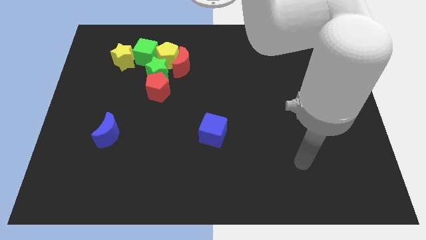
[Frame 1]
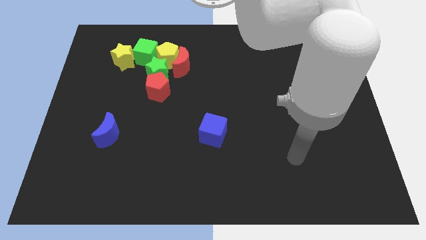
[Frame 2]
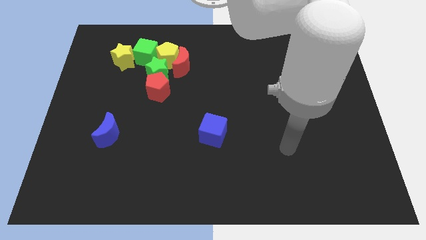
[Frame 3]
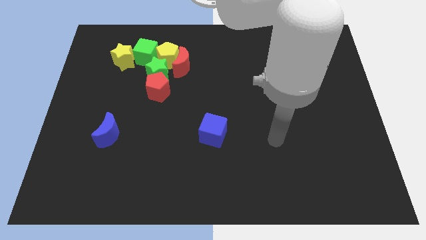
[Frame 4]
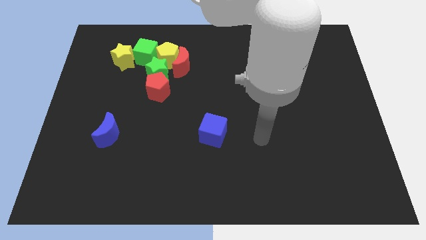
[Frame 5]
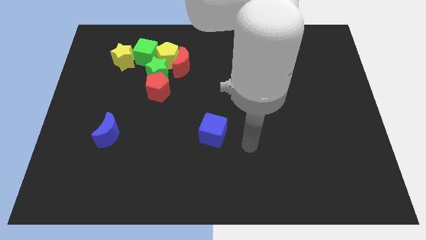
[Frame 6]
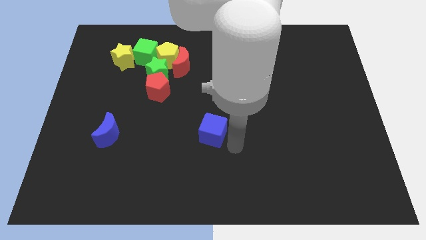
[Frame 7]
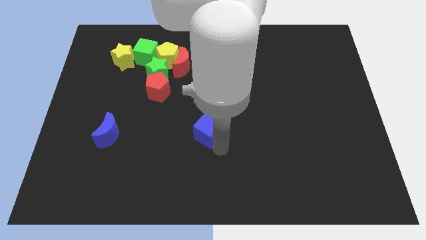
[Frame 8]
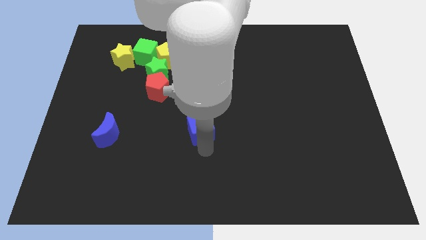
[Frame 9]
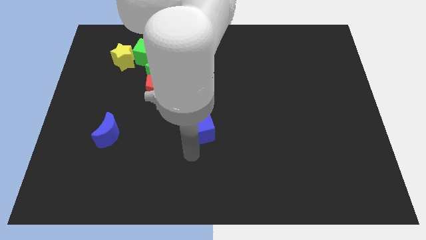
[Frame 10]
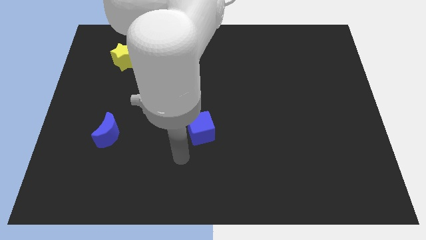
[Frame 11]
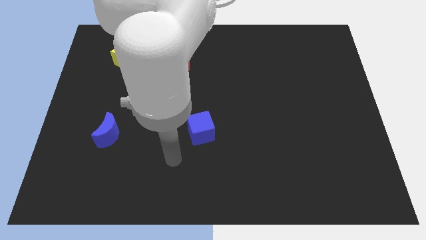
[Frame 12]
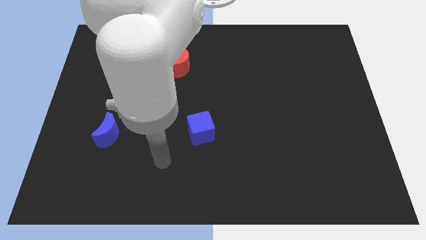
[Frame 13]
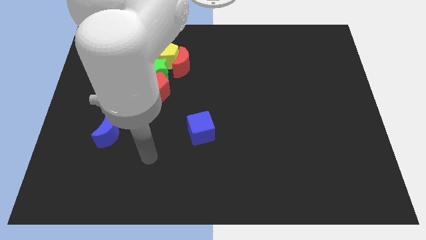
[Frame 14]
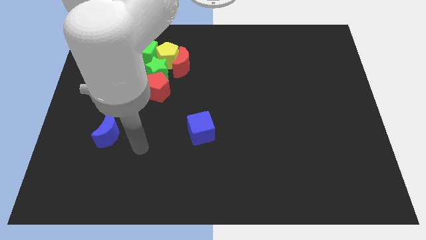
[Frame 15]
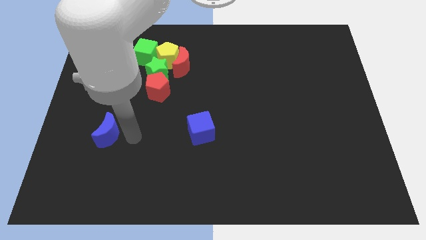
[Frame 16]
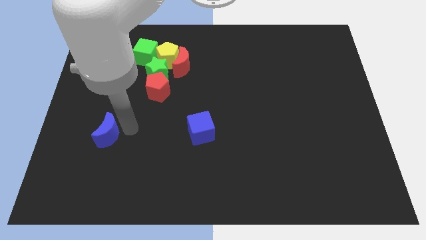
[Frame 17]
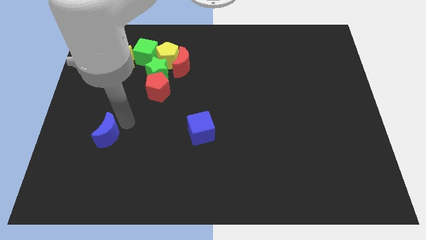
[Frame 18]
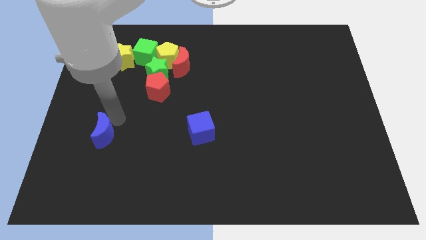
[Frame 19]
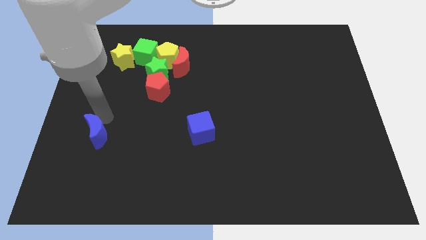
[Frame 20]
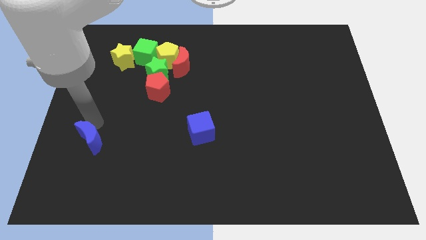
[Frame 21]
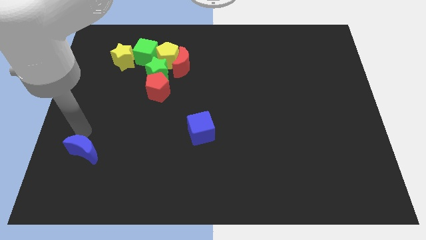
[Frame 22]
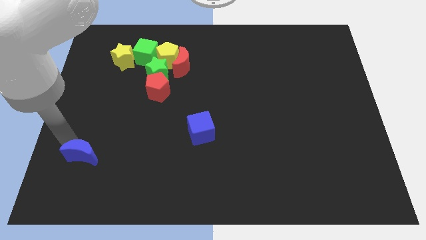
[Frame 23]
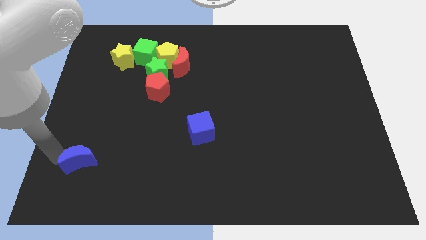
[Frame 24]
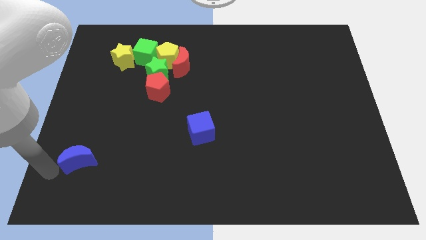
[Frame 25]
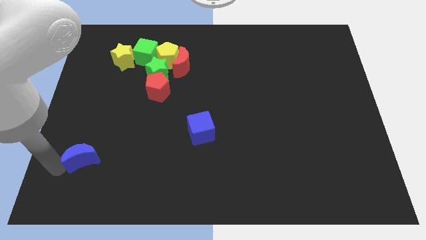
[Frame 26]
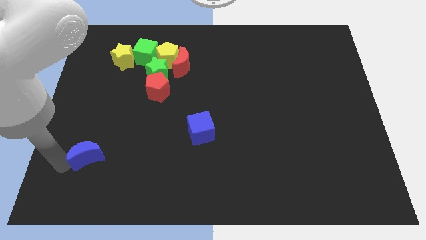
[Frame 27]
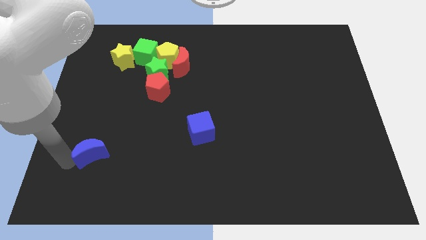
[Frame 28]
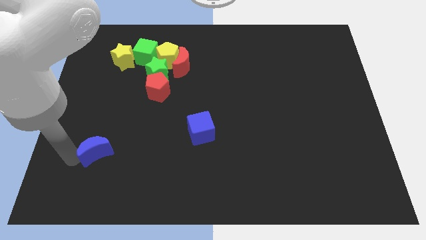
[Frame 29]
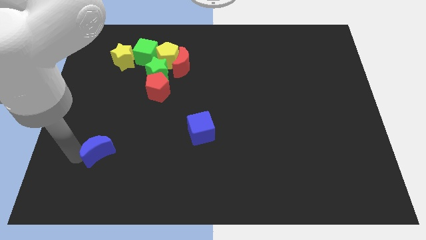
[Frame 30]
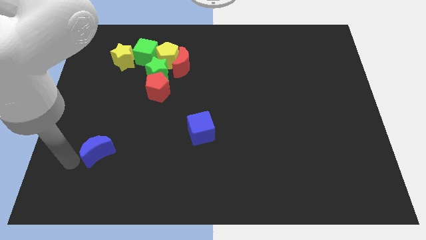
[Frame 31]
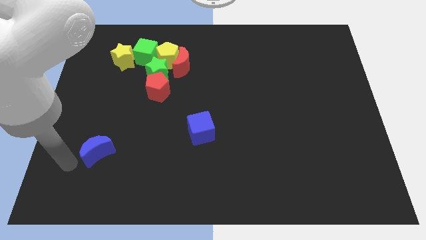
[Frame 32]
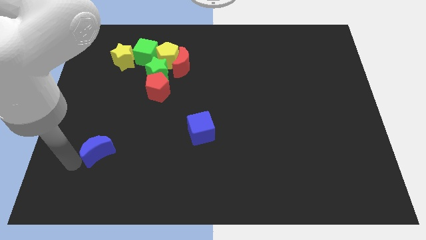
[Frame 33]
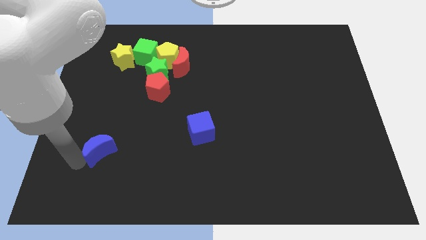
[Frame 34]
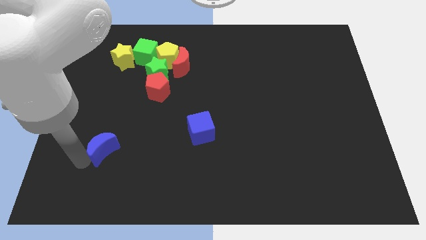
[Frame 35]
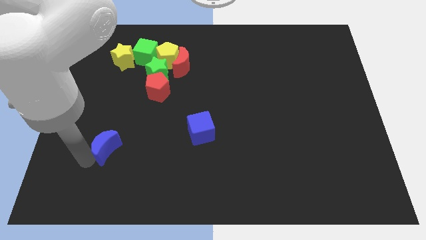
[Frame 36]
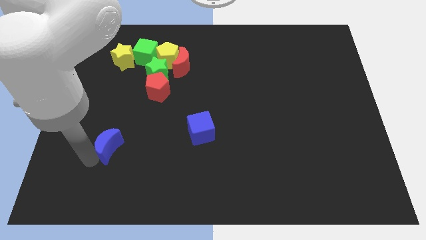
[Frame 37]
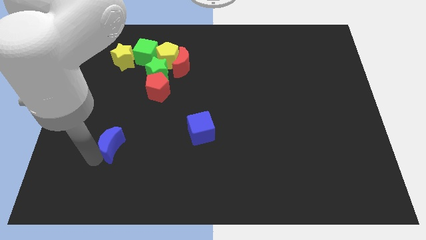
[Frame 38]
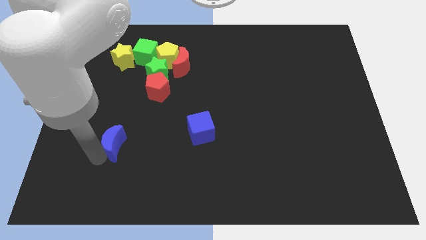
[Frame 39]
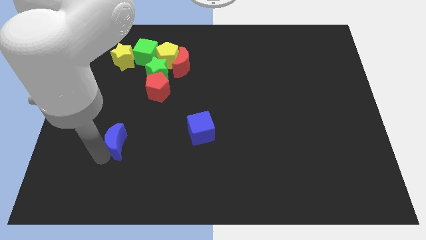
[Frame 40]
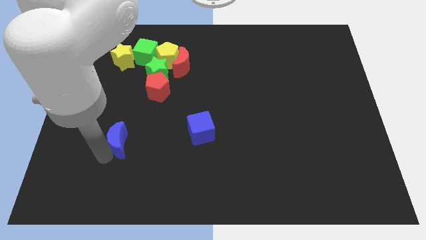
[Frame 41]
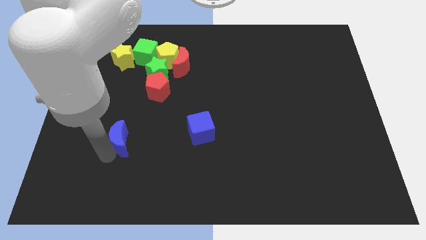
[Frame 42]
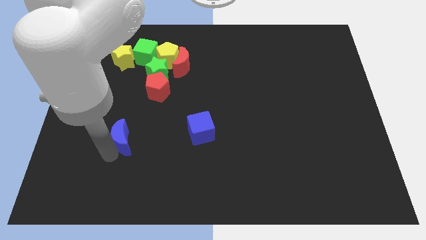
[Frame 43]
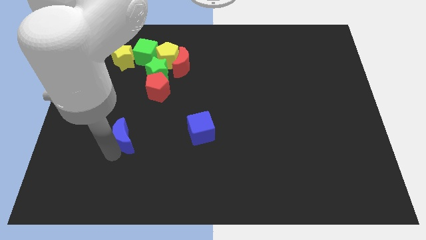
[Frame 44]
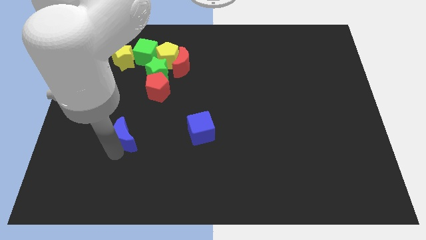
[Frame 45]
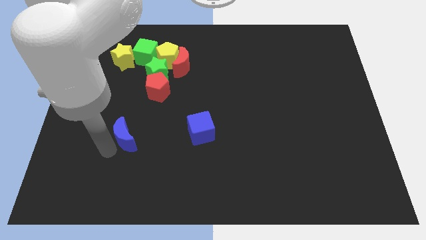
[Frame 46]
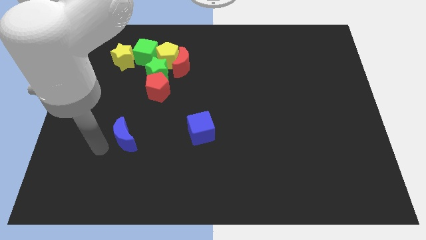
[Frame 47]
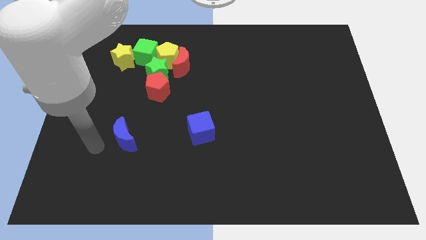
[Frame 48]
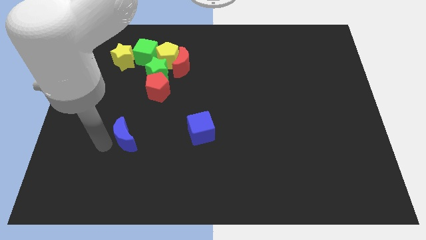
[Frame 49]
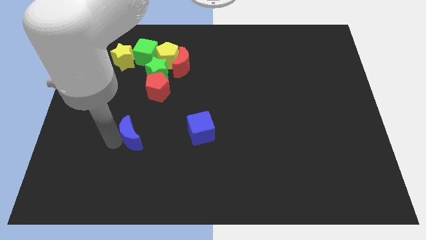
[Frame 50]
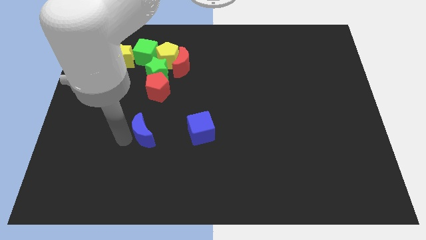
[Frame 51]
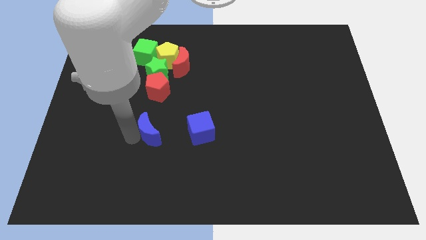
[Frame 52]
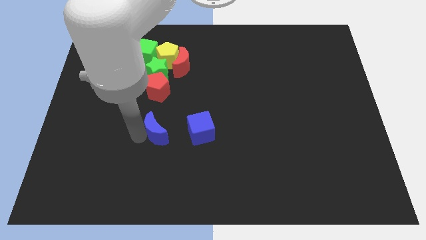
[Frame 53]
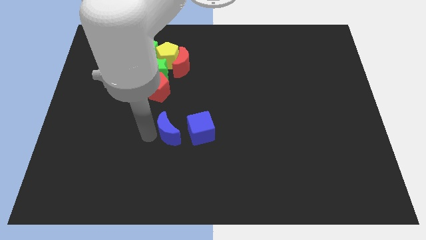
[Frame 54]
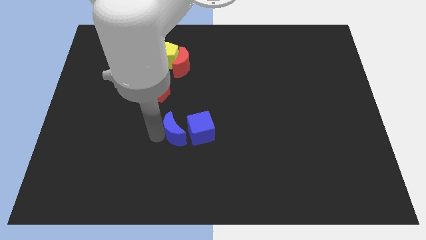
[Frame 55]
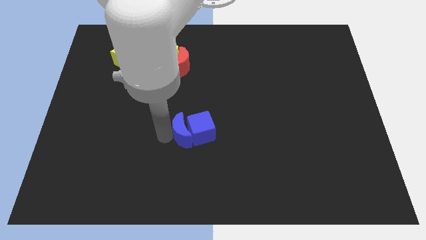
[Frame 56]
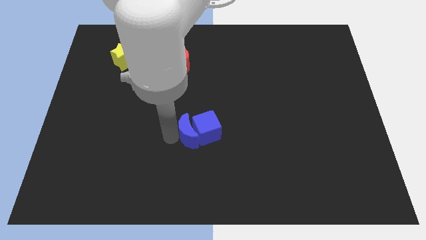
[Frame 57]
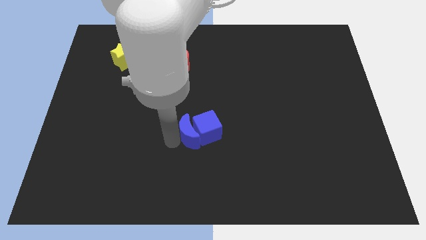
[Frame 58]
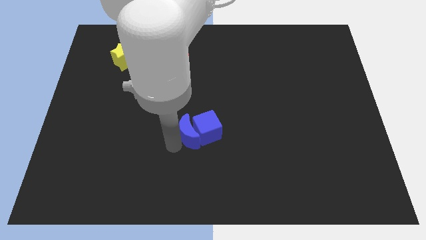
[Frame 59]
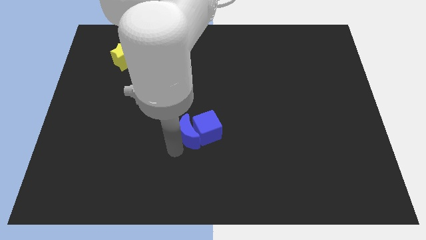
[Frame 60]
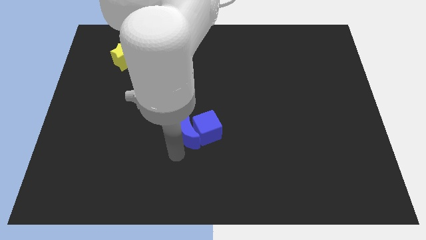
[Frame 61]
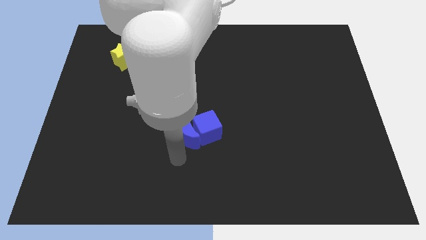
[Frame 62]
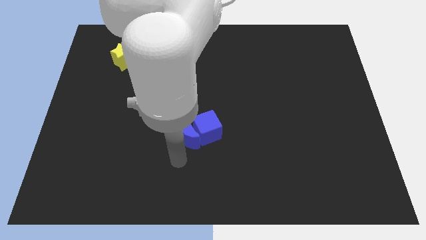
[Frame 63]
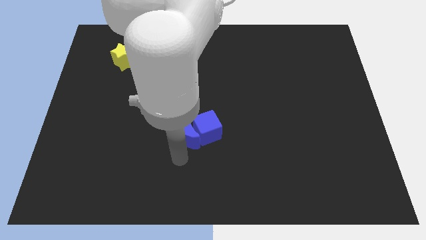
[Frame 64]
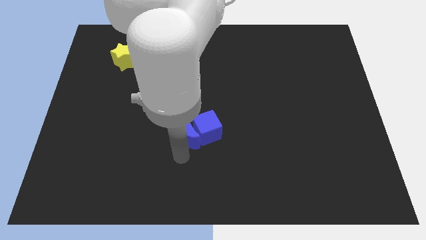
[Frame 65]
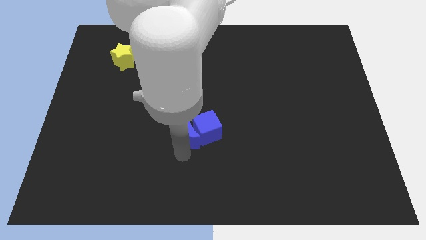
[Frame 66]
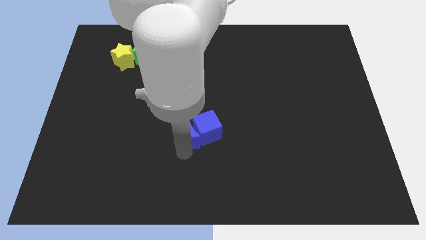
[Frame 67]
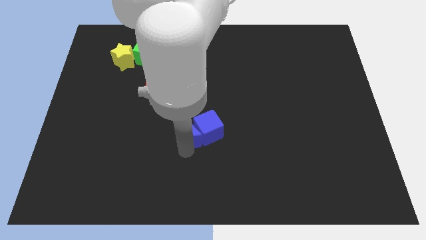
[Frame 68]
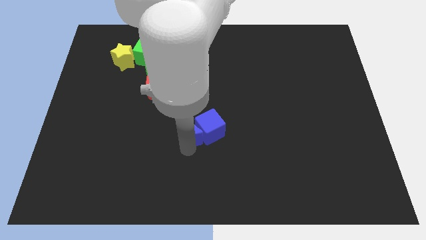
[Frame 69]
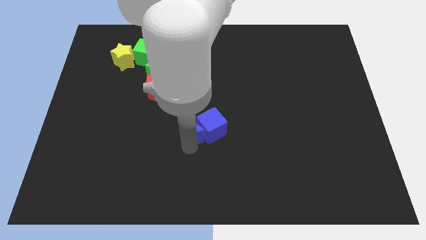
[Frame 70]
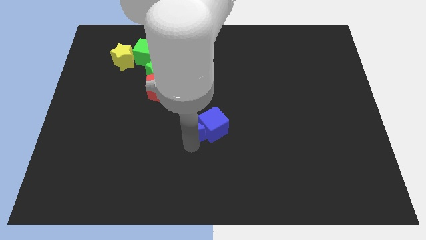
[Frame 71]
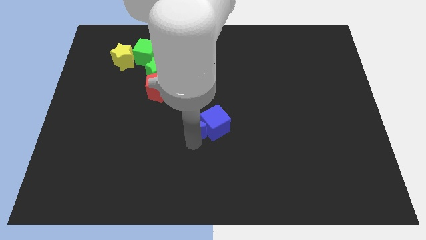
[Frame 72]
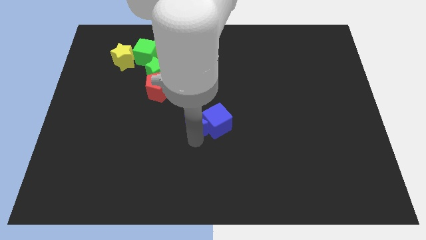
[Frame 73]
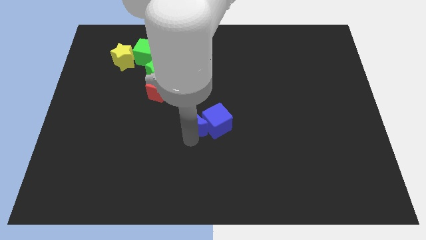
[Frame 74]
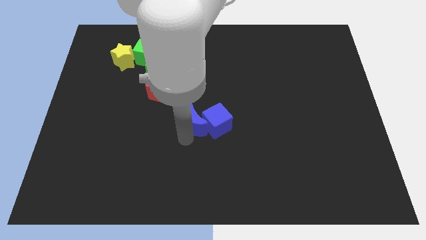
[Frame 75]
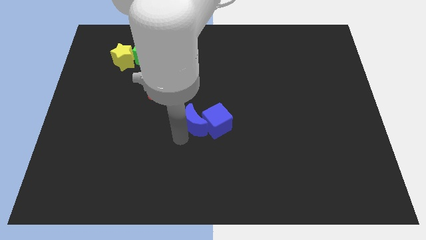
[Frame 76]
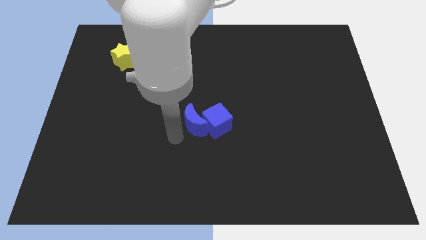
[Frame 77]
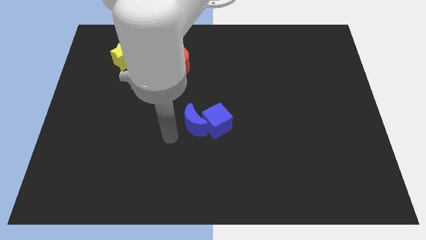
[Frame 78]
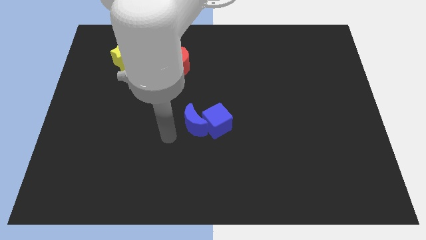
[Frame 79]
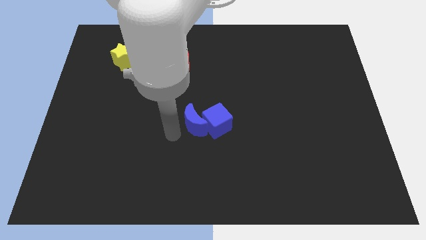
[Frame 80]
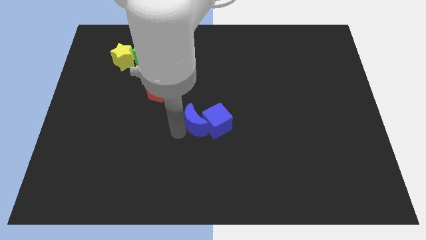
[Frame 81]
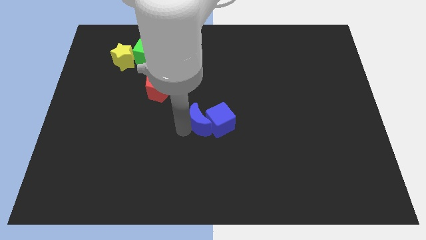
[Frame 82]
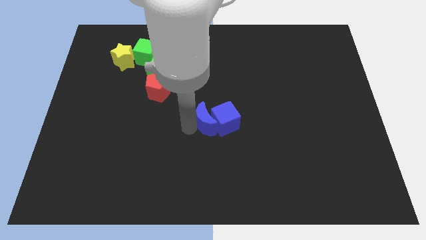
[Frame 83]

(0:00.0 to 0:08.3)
move the blue moon to the right
